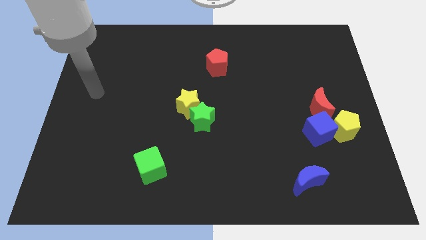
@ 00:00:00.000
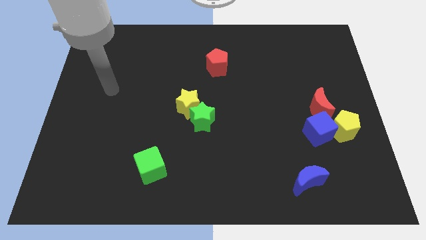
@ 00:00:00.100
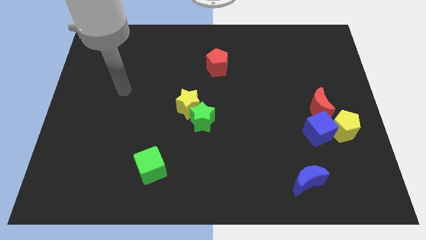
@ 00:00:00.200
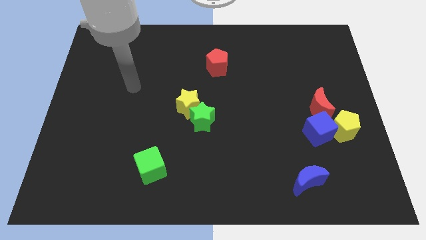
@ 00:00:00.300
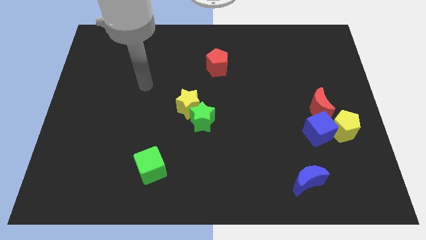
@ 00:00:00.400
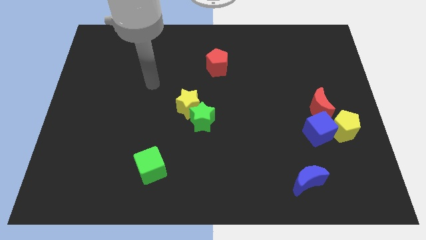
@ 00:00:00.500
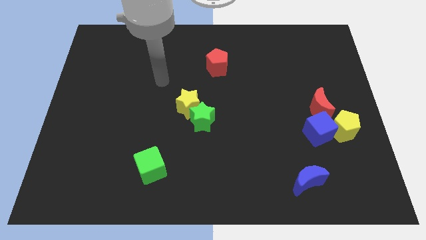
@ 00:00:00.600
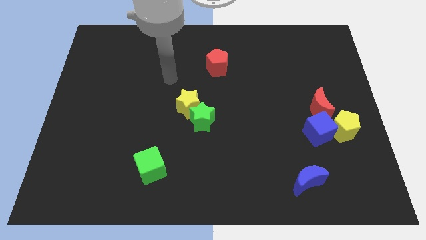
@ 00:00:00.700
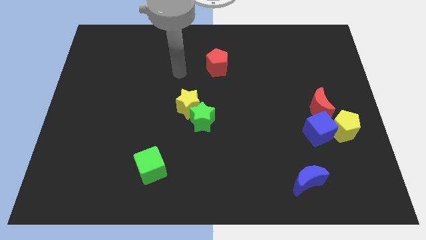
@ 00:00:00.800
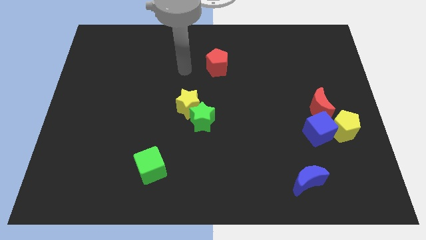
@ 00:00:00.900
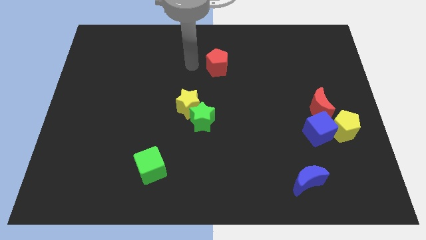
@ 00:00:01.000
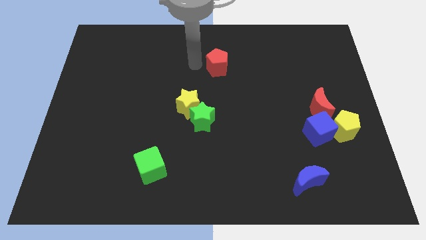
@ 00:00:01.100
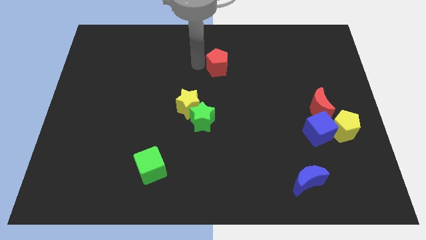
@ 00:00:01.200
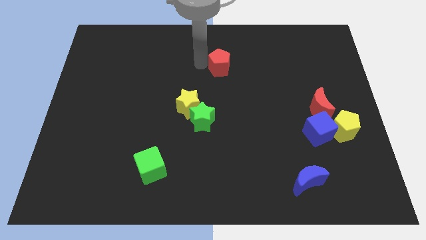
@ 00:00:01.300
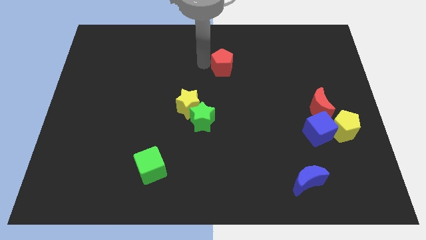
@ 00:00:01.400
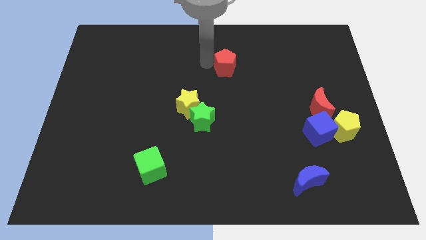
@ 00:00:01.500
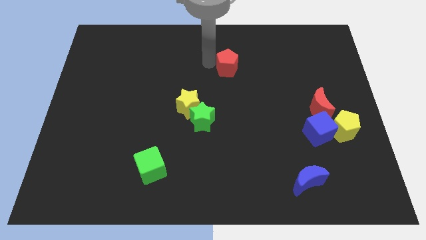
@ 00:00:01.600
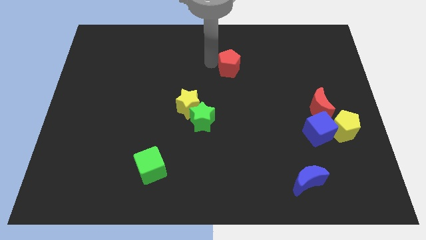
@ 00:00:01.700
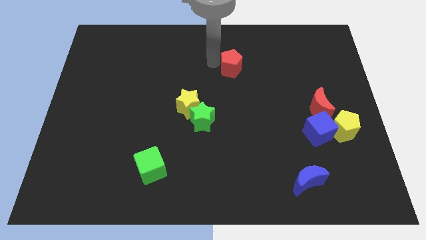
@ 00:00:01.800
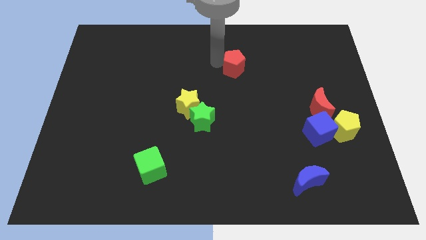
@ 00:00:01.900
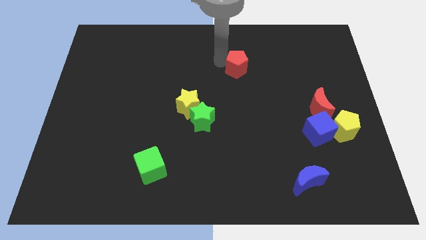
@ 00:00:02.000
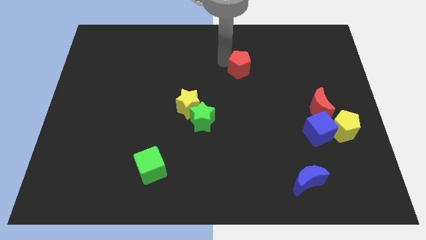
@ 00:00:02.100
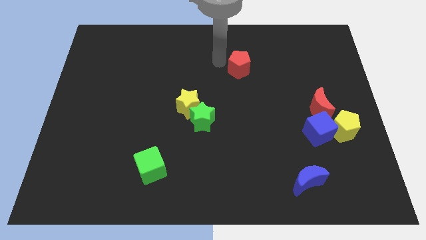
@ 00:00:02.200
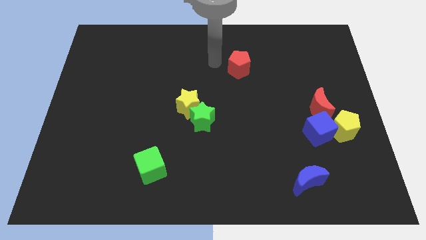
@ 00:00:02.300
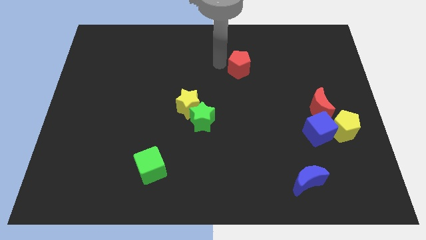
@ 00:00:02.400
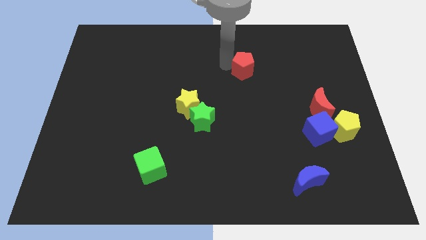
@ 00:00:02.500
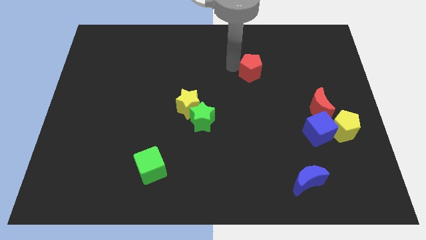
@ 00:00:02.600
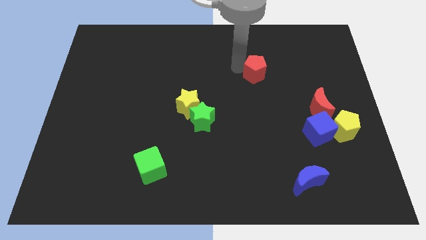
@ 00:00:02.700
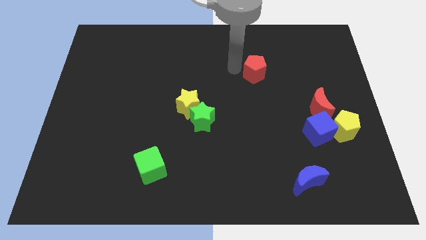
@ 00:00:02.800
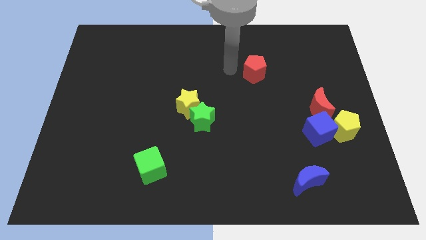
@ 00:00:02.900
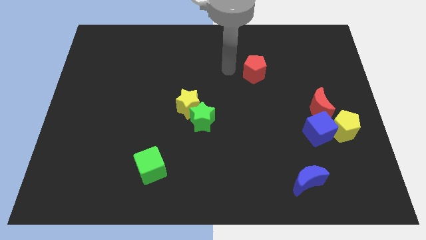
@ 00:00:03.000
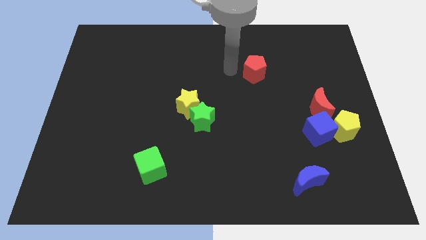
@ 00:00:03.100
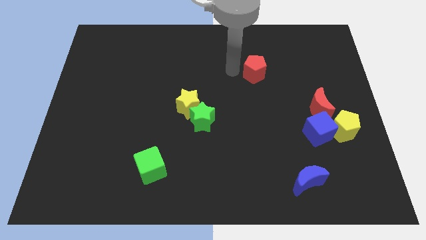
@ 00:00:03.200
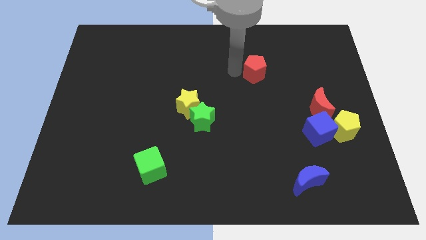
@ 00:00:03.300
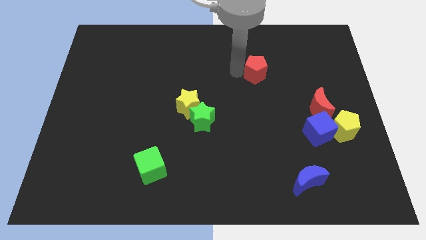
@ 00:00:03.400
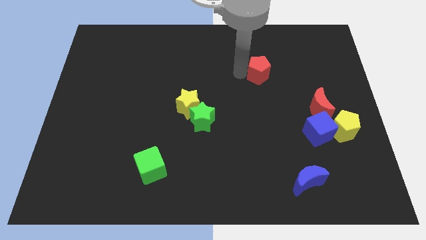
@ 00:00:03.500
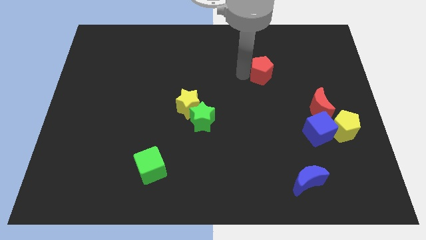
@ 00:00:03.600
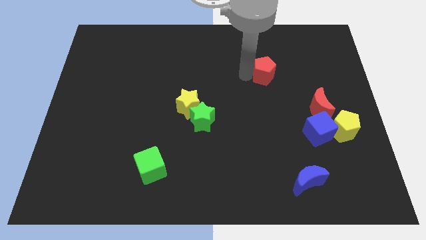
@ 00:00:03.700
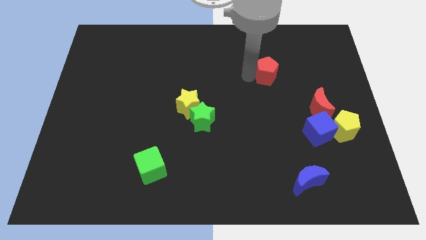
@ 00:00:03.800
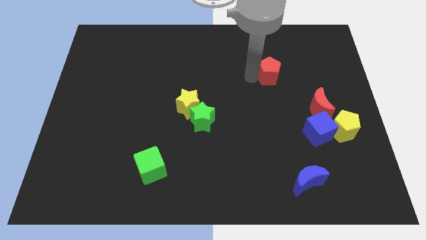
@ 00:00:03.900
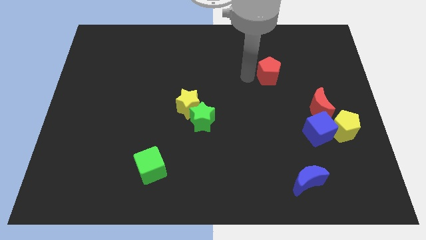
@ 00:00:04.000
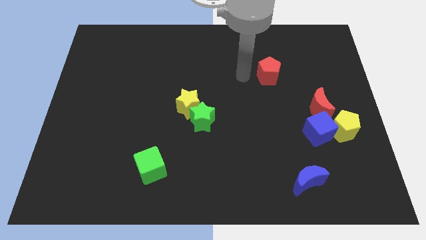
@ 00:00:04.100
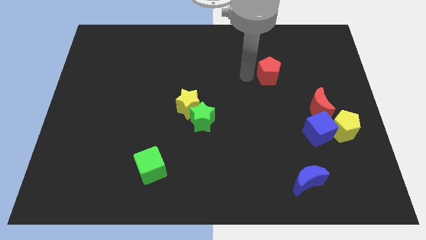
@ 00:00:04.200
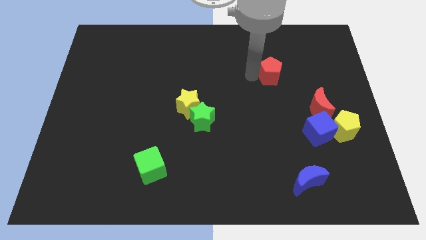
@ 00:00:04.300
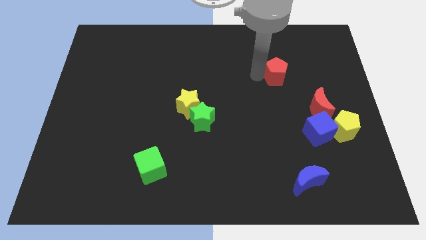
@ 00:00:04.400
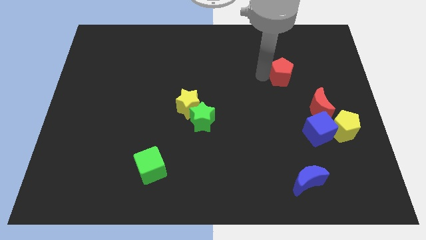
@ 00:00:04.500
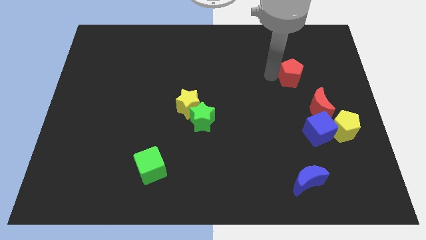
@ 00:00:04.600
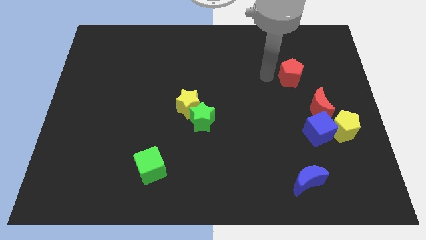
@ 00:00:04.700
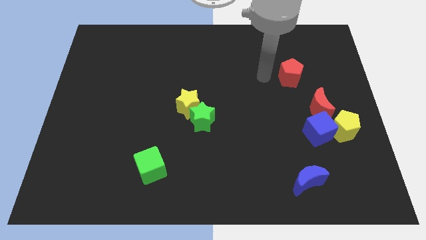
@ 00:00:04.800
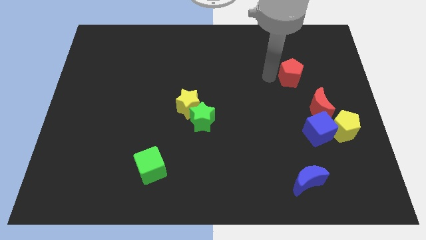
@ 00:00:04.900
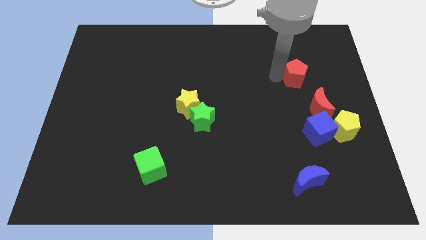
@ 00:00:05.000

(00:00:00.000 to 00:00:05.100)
push the red pentagon to the top of the red moon

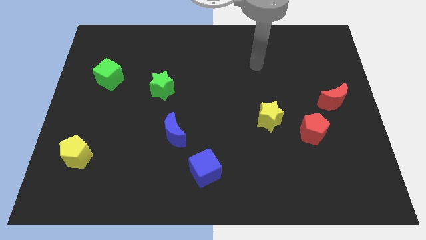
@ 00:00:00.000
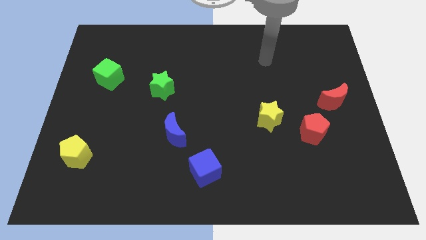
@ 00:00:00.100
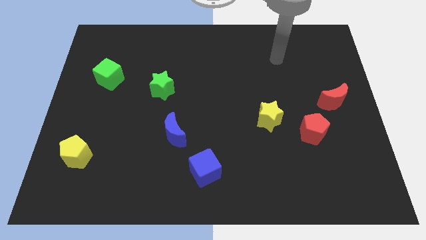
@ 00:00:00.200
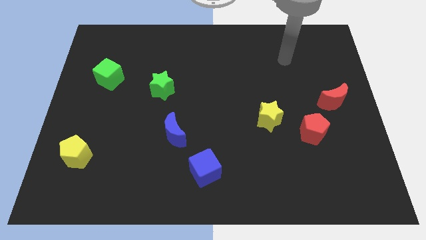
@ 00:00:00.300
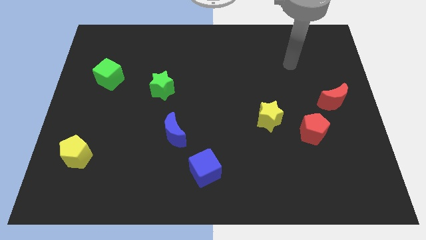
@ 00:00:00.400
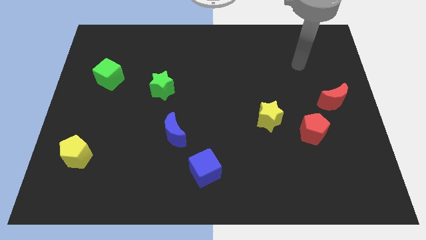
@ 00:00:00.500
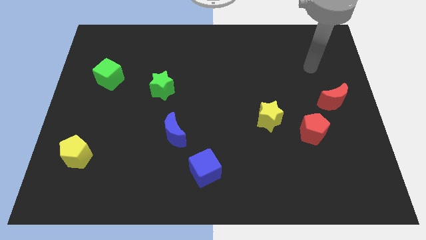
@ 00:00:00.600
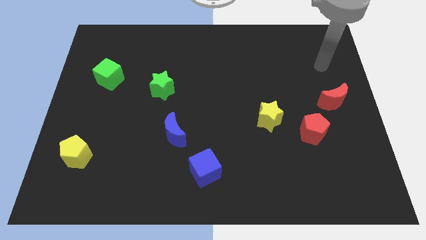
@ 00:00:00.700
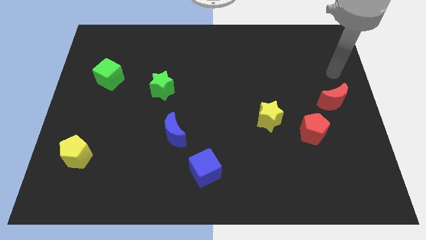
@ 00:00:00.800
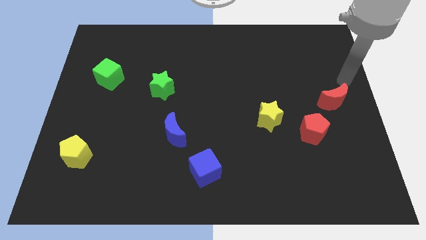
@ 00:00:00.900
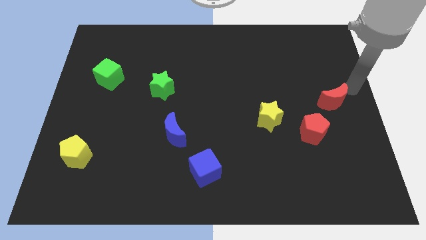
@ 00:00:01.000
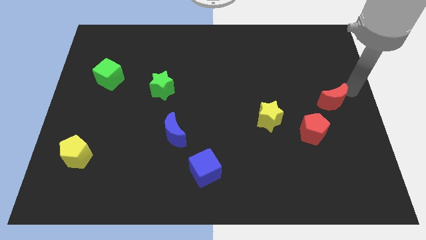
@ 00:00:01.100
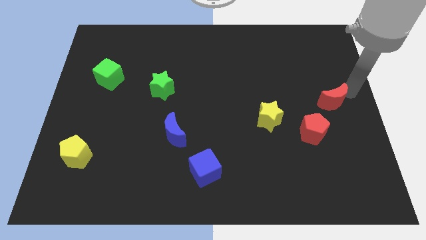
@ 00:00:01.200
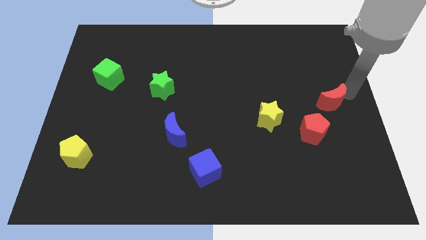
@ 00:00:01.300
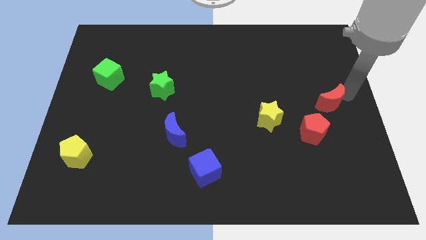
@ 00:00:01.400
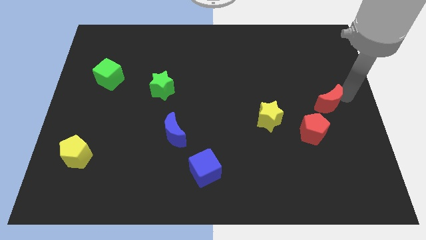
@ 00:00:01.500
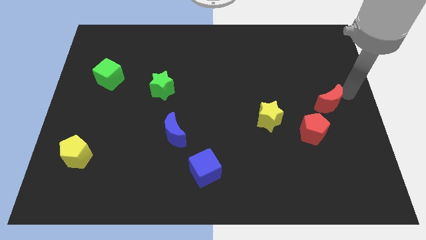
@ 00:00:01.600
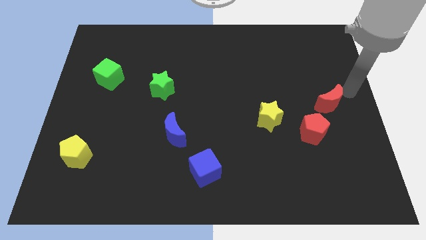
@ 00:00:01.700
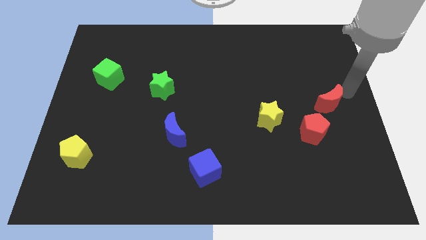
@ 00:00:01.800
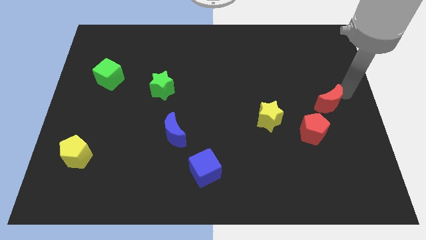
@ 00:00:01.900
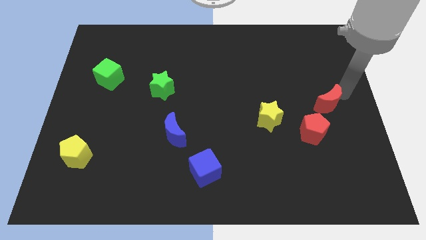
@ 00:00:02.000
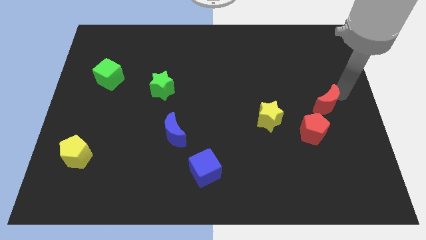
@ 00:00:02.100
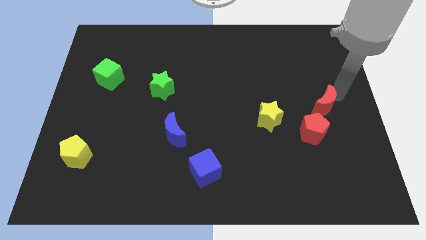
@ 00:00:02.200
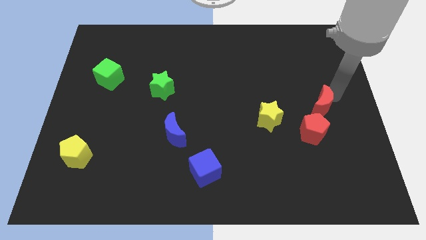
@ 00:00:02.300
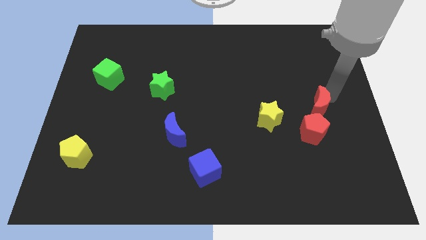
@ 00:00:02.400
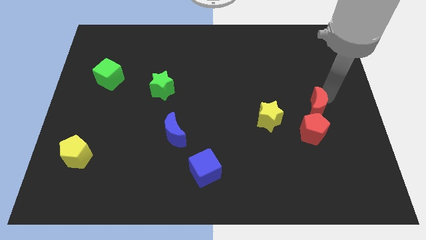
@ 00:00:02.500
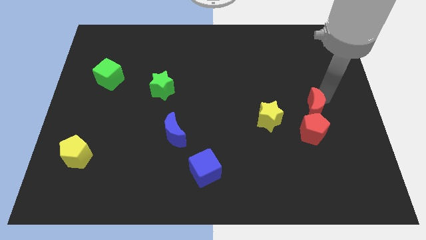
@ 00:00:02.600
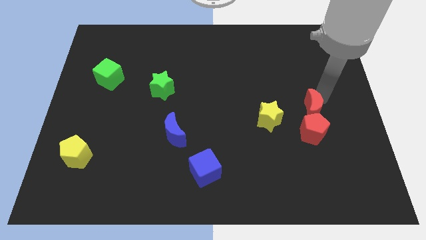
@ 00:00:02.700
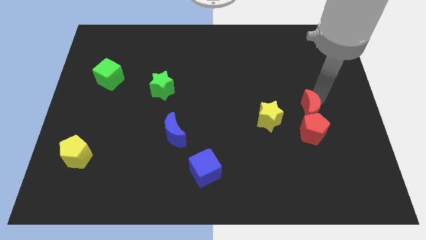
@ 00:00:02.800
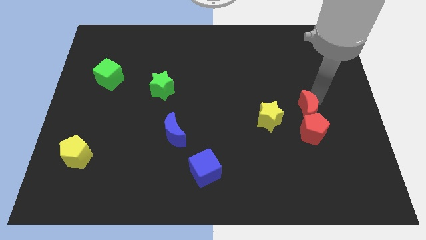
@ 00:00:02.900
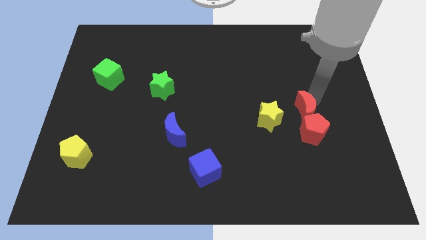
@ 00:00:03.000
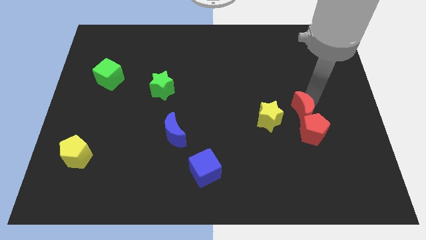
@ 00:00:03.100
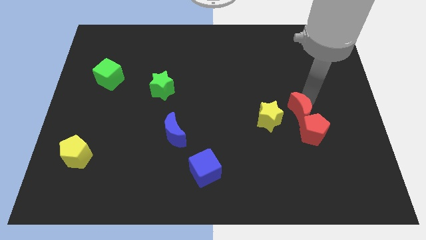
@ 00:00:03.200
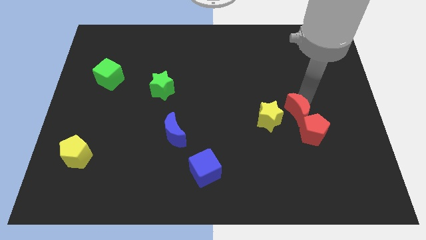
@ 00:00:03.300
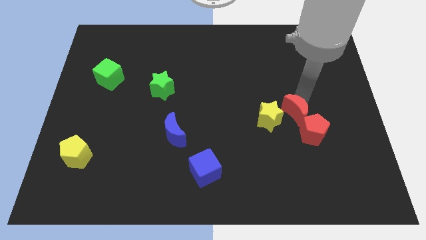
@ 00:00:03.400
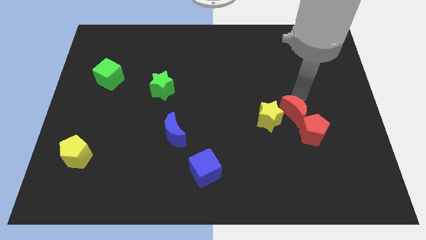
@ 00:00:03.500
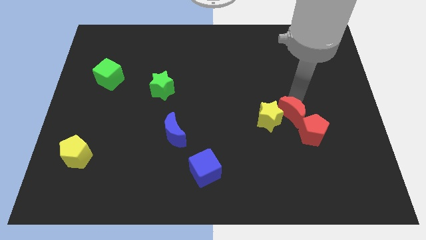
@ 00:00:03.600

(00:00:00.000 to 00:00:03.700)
push the red moon to the bottom right side of the yellow star
